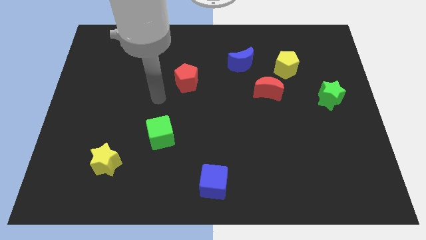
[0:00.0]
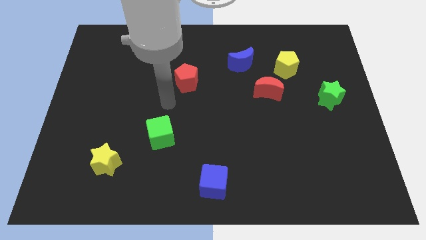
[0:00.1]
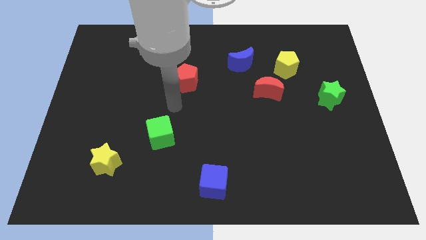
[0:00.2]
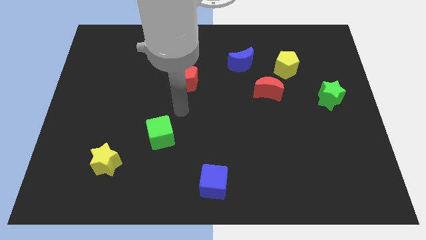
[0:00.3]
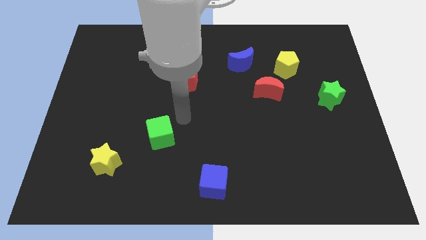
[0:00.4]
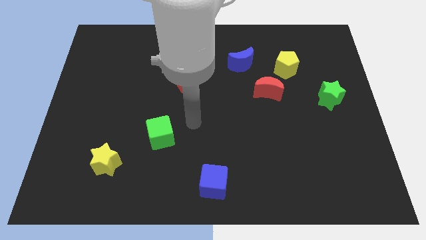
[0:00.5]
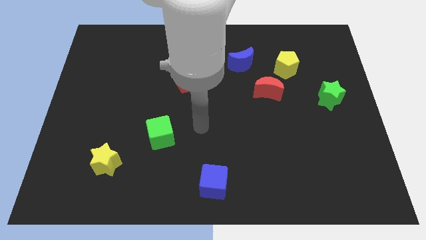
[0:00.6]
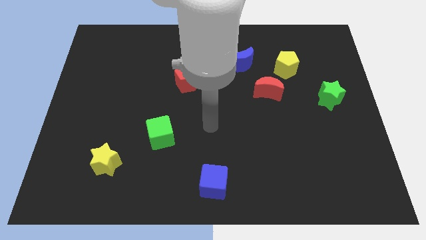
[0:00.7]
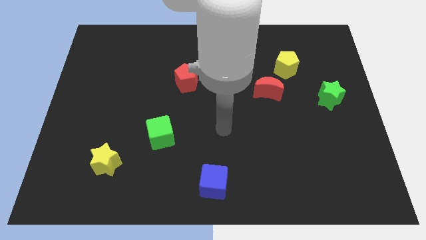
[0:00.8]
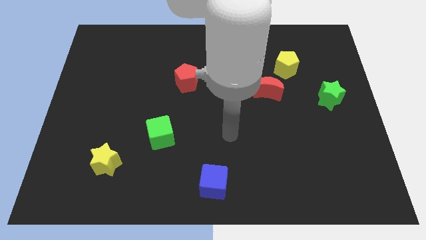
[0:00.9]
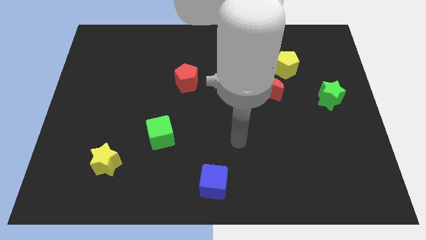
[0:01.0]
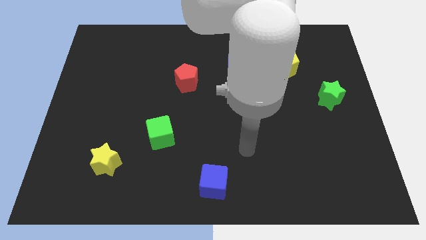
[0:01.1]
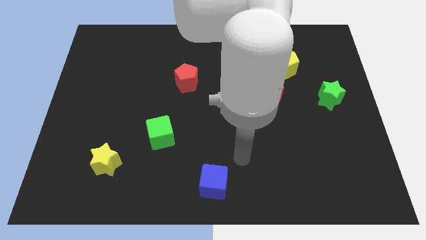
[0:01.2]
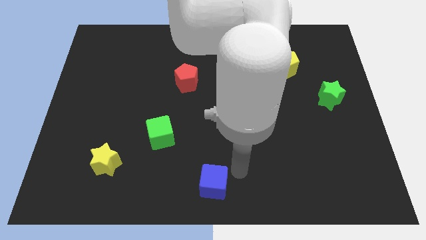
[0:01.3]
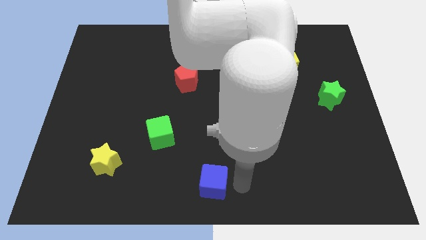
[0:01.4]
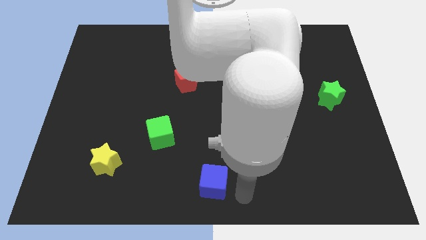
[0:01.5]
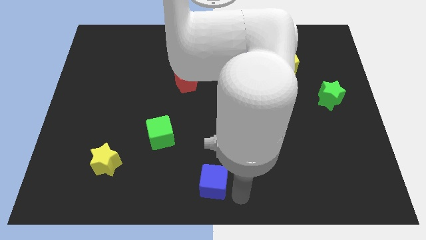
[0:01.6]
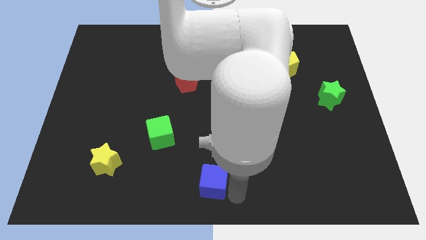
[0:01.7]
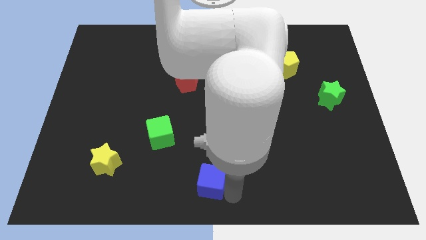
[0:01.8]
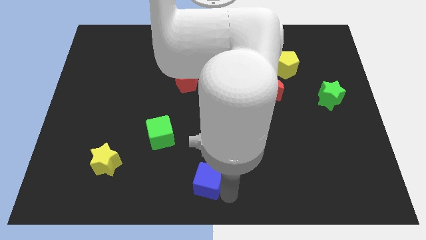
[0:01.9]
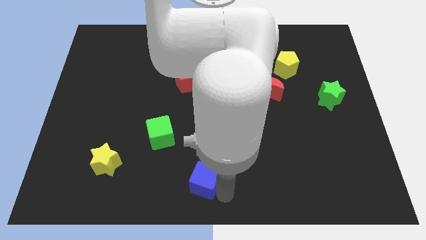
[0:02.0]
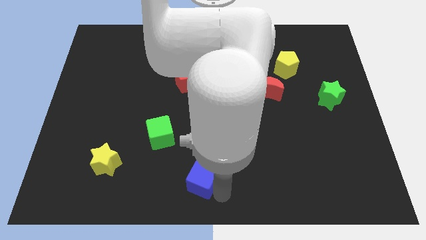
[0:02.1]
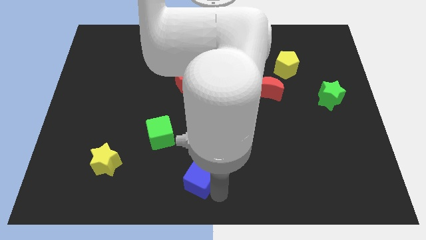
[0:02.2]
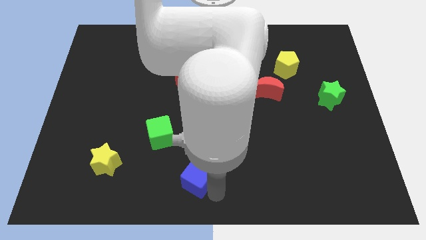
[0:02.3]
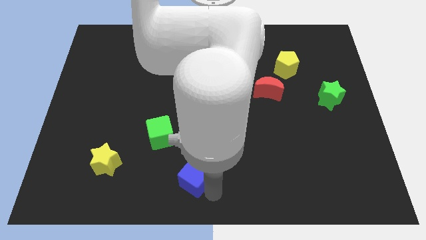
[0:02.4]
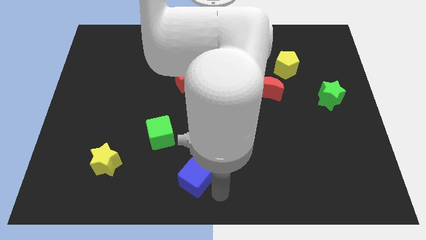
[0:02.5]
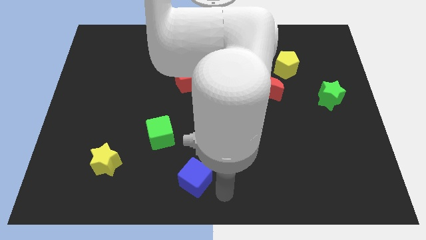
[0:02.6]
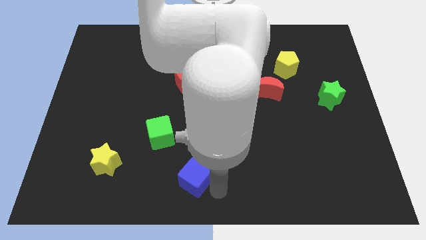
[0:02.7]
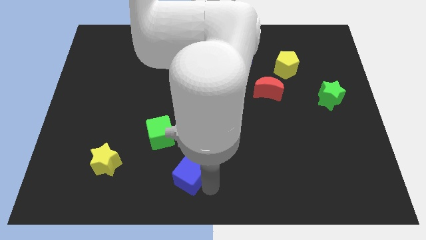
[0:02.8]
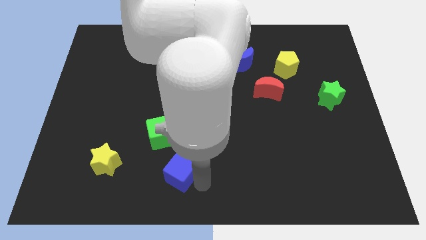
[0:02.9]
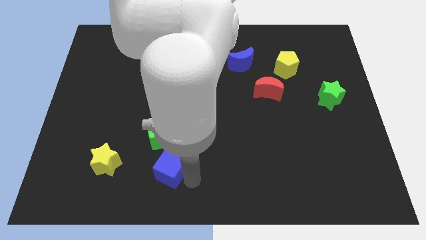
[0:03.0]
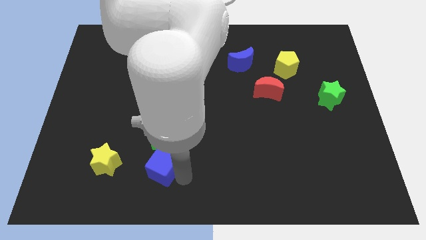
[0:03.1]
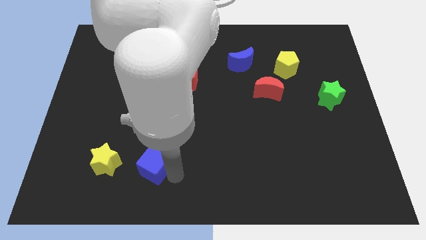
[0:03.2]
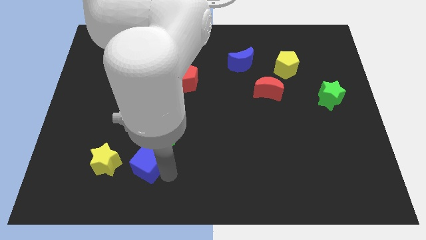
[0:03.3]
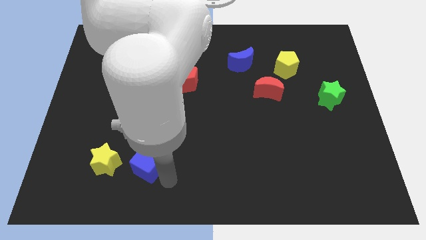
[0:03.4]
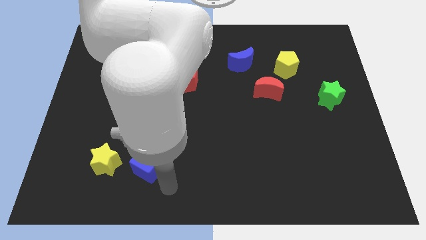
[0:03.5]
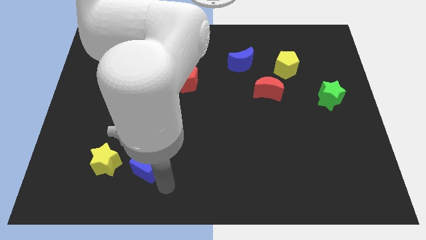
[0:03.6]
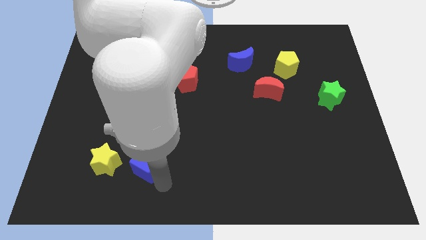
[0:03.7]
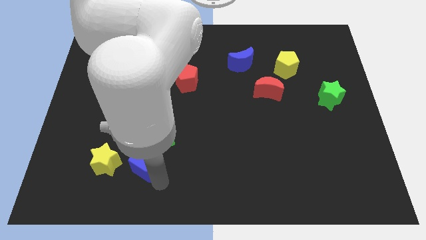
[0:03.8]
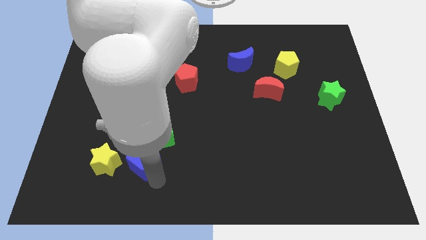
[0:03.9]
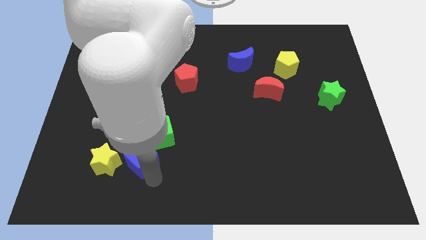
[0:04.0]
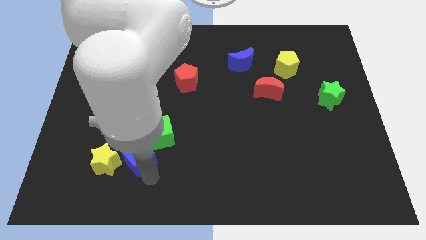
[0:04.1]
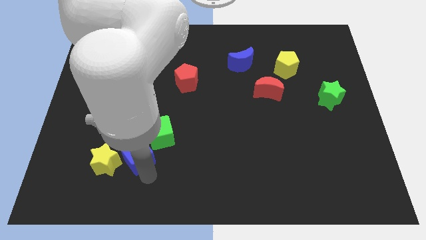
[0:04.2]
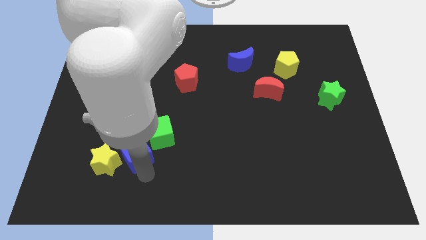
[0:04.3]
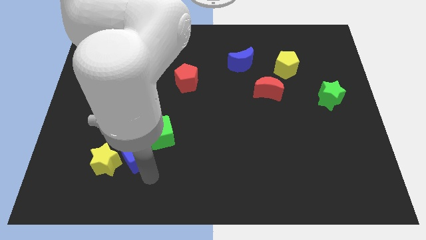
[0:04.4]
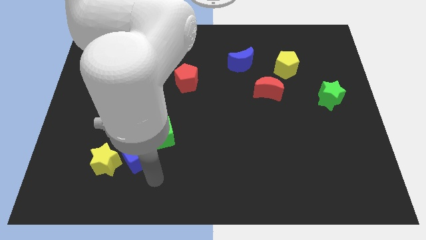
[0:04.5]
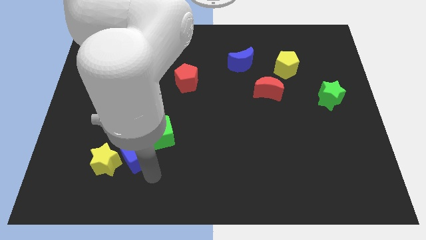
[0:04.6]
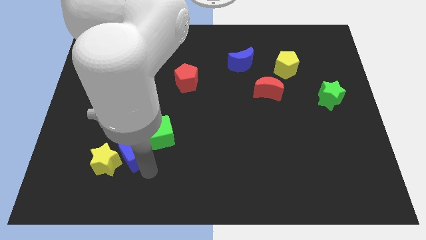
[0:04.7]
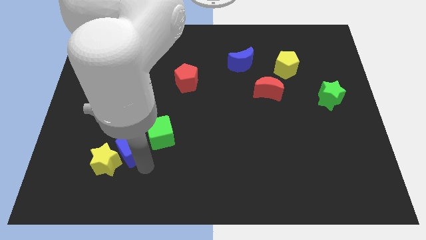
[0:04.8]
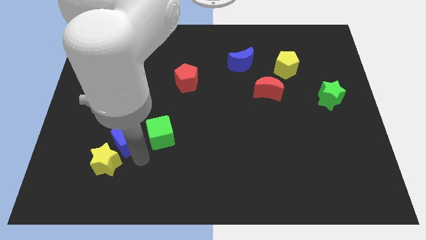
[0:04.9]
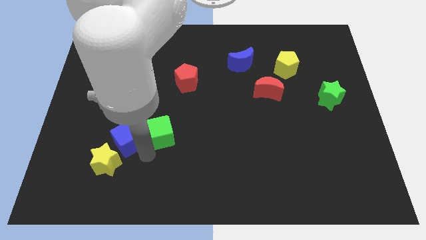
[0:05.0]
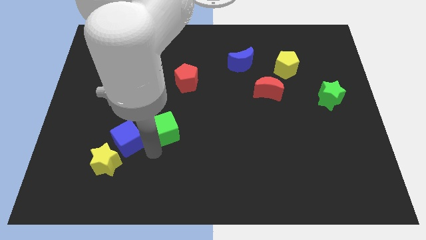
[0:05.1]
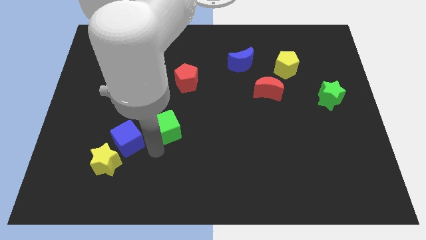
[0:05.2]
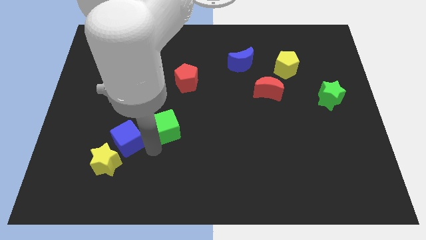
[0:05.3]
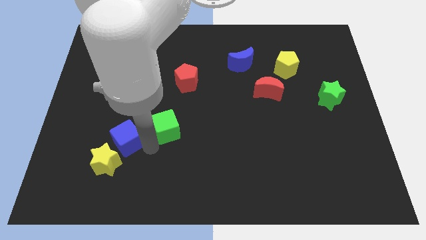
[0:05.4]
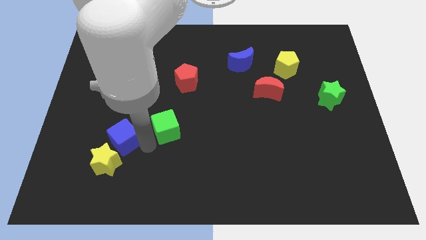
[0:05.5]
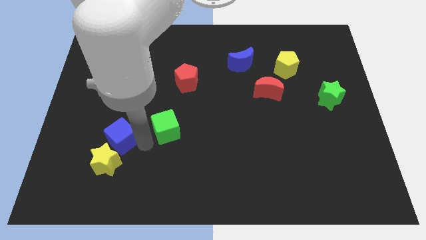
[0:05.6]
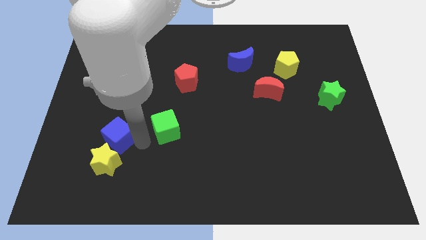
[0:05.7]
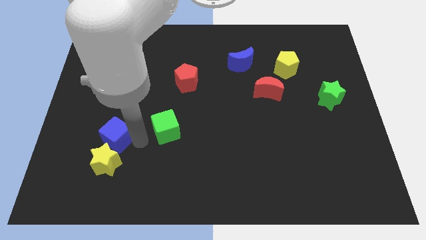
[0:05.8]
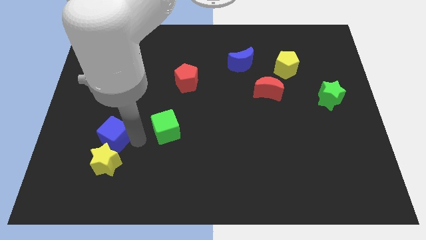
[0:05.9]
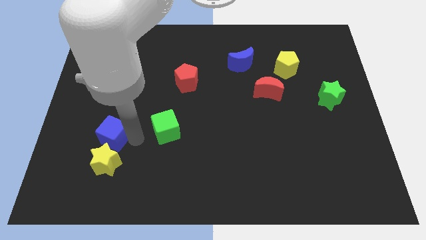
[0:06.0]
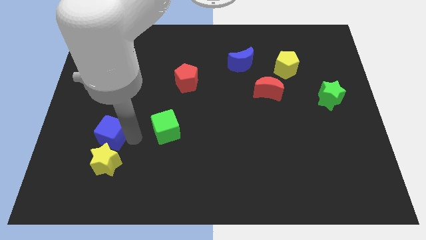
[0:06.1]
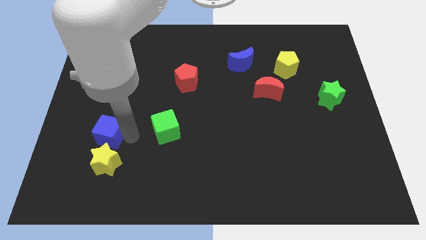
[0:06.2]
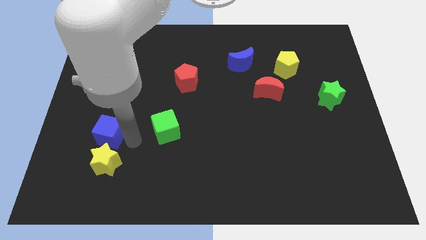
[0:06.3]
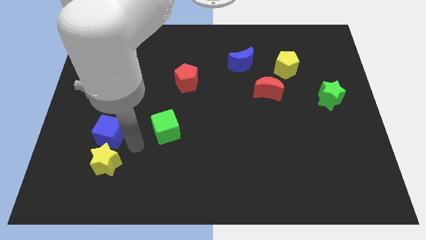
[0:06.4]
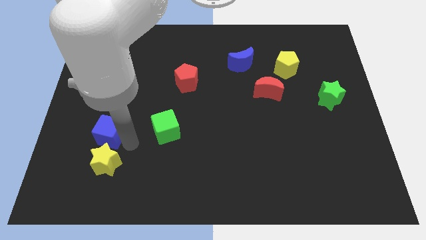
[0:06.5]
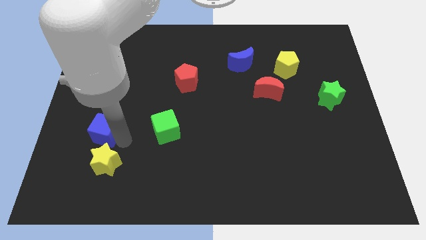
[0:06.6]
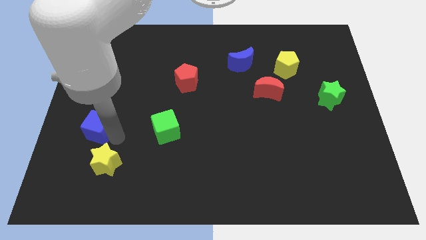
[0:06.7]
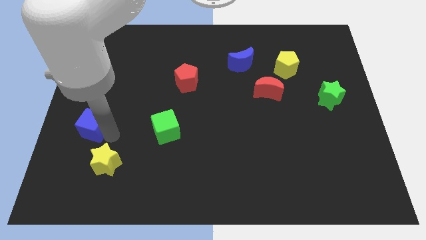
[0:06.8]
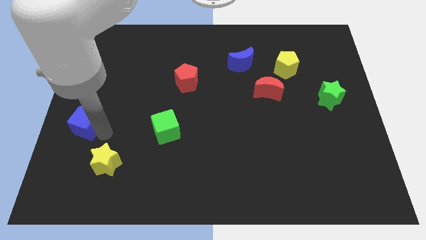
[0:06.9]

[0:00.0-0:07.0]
put the blue cube to the center left
